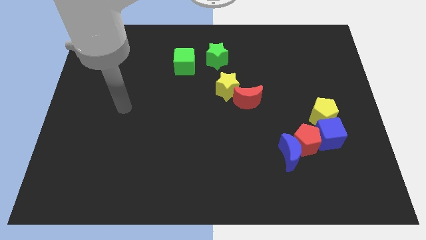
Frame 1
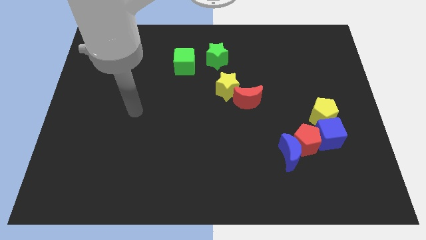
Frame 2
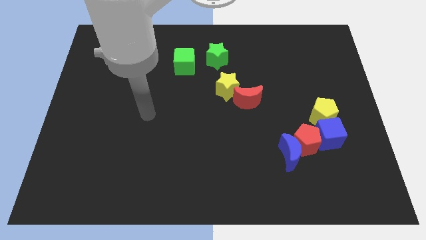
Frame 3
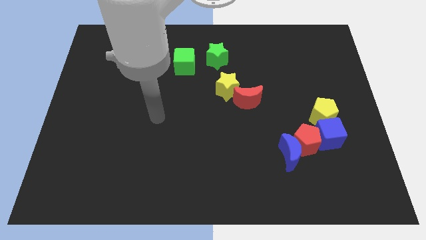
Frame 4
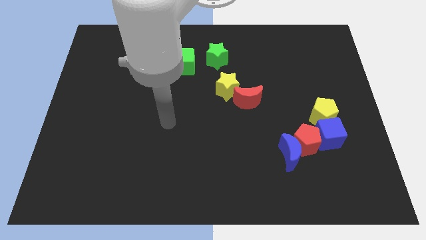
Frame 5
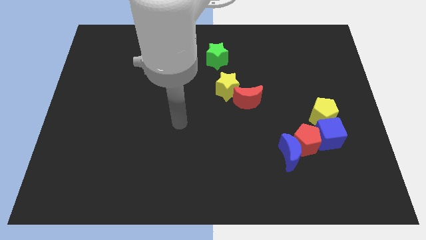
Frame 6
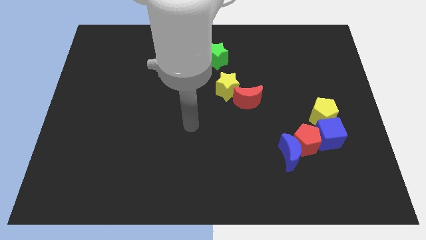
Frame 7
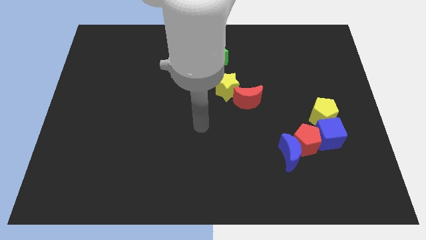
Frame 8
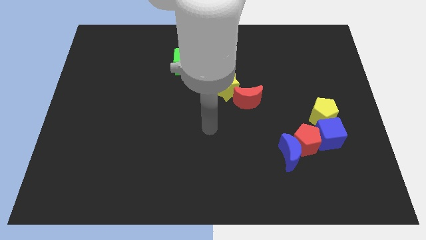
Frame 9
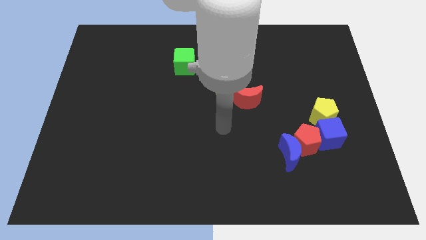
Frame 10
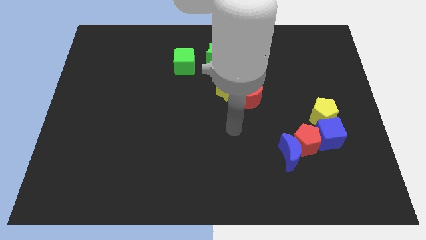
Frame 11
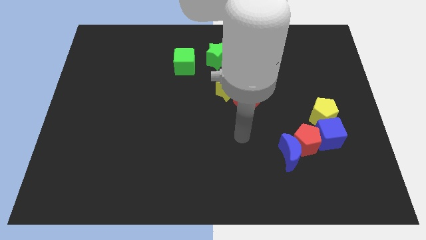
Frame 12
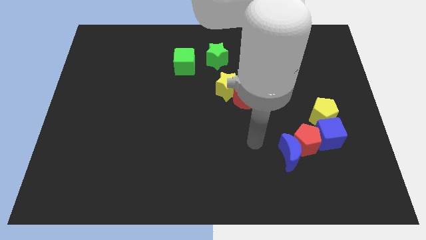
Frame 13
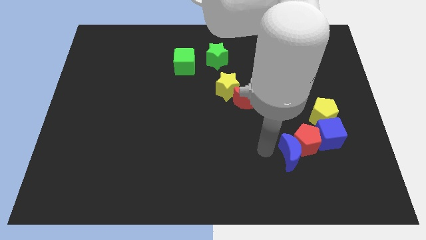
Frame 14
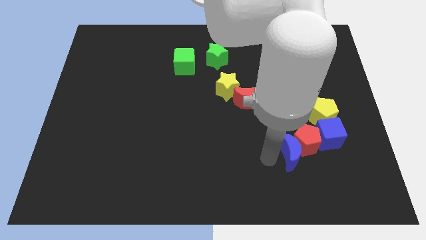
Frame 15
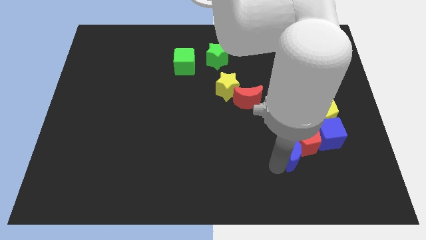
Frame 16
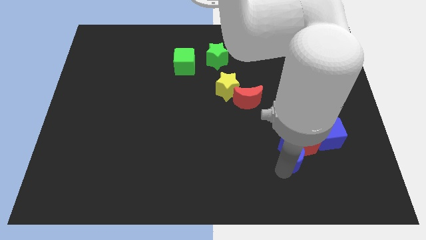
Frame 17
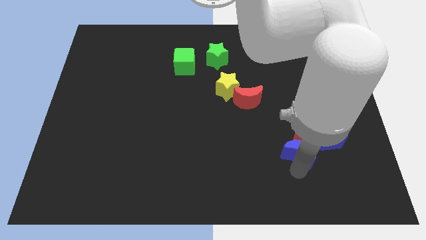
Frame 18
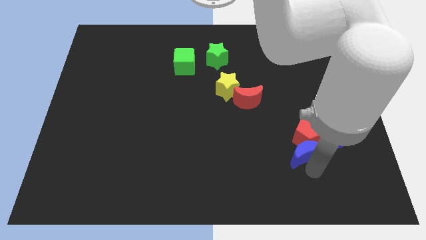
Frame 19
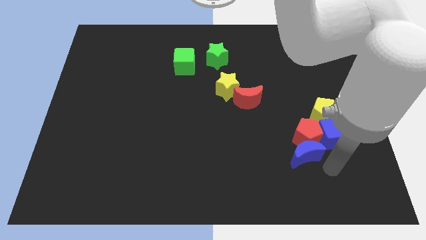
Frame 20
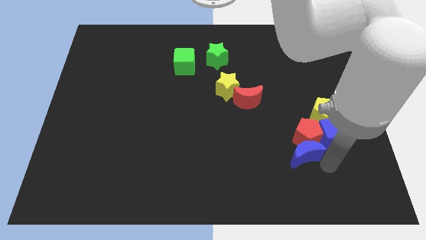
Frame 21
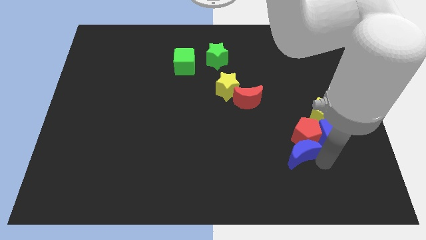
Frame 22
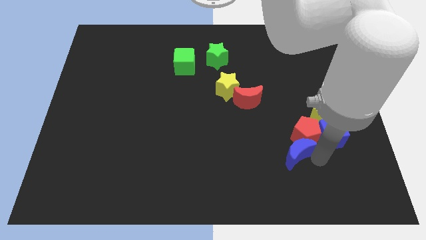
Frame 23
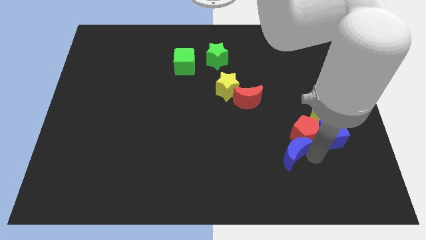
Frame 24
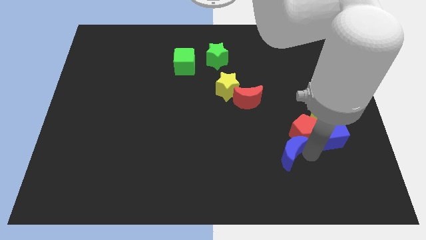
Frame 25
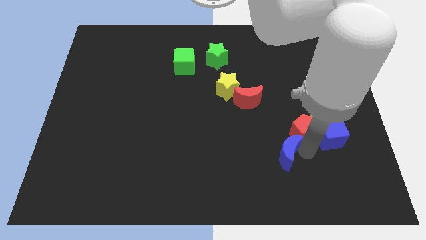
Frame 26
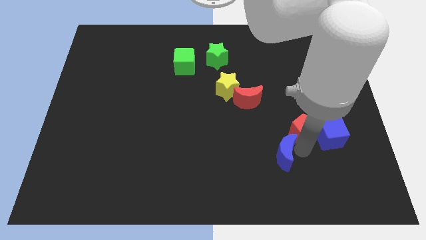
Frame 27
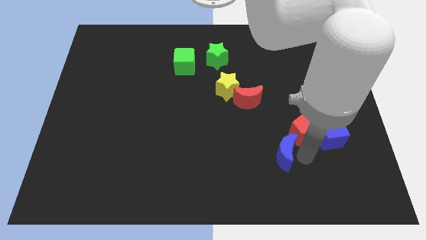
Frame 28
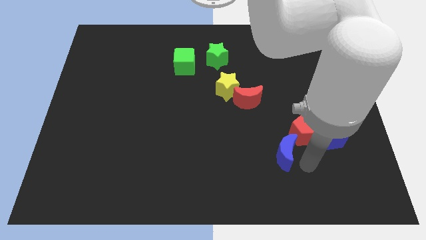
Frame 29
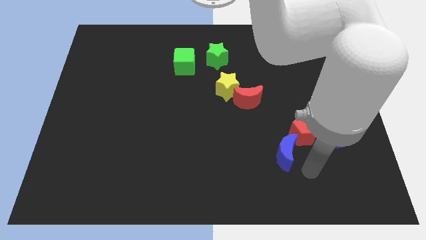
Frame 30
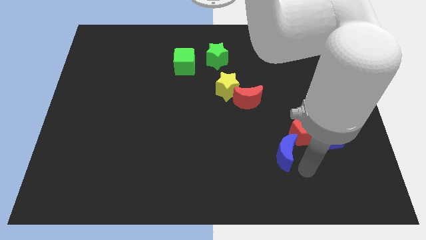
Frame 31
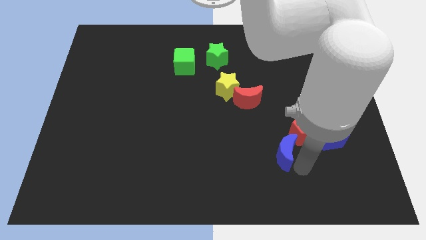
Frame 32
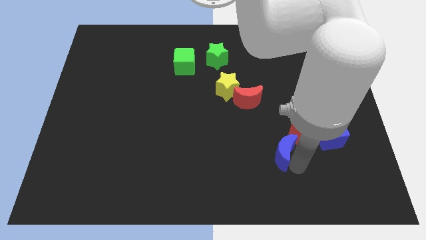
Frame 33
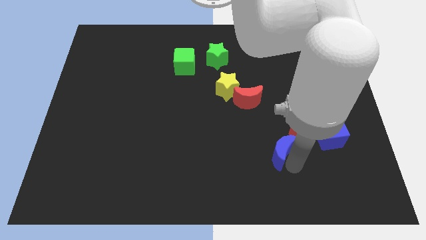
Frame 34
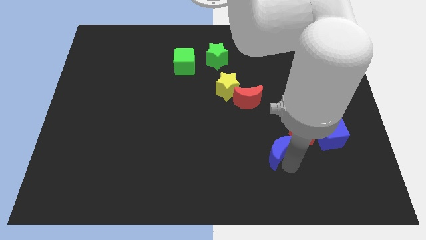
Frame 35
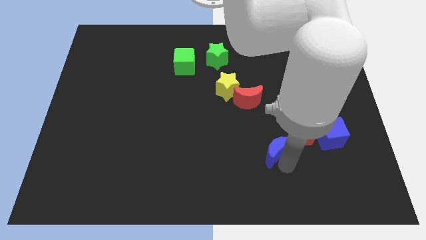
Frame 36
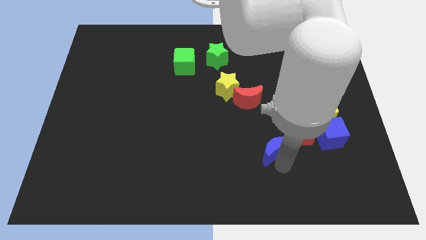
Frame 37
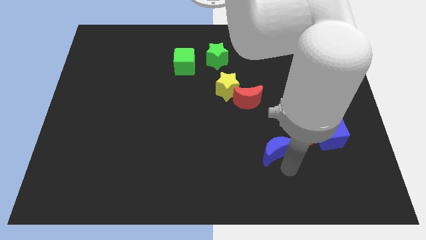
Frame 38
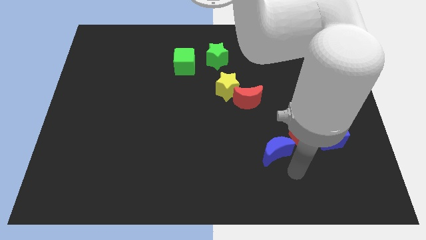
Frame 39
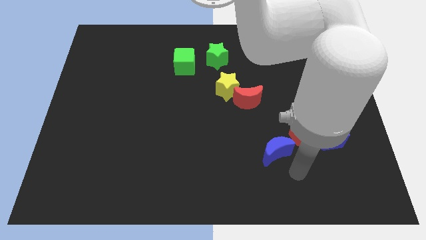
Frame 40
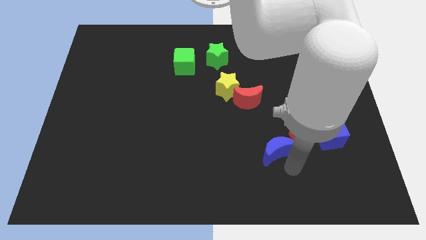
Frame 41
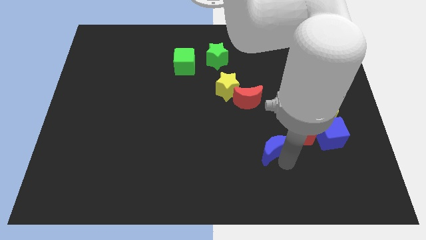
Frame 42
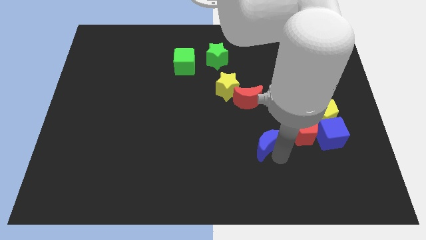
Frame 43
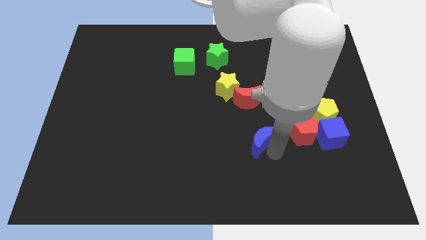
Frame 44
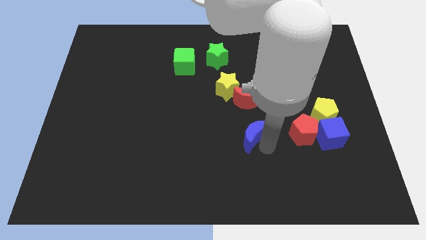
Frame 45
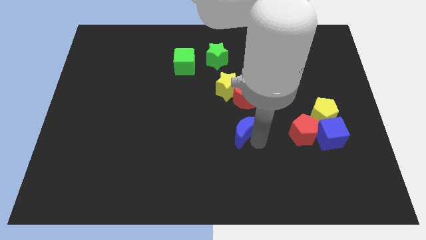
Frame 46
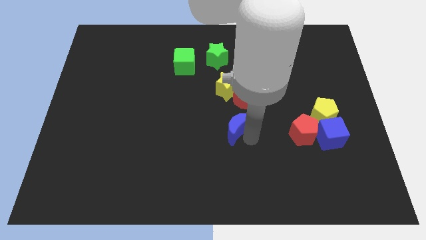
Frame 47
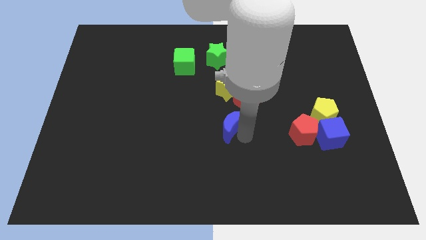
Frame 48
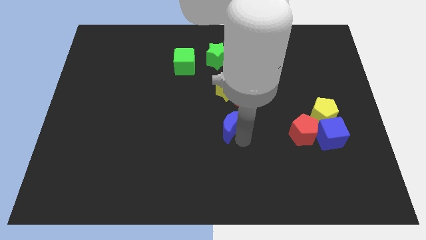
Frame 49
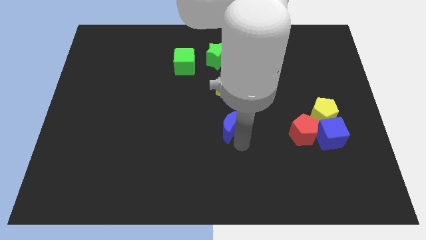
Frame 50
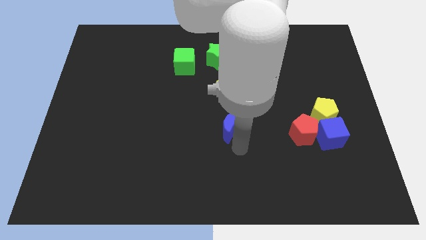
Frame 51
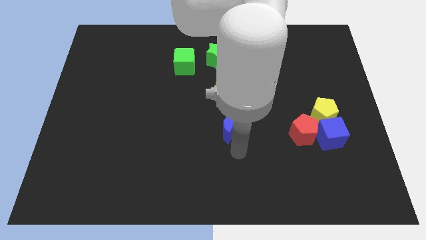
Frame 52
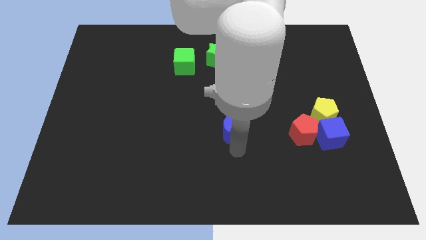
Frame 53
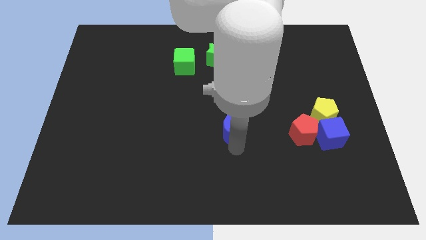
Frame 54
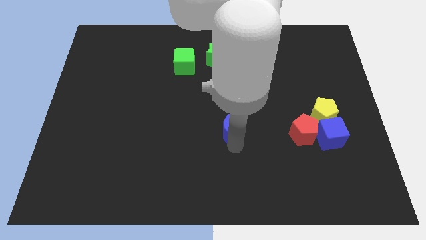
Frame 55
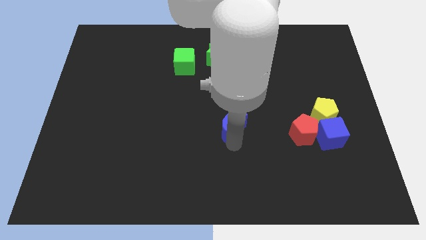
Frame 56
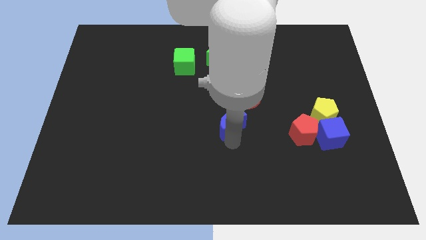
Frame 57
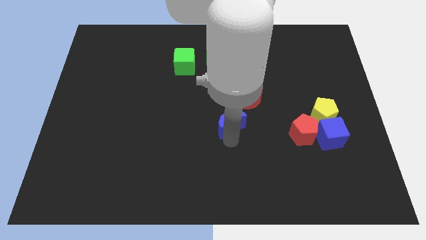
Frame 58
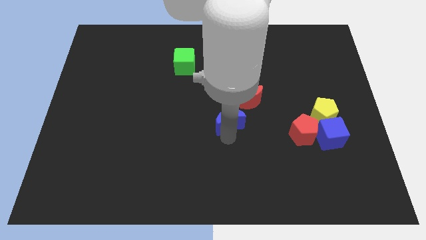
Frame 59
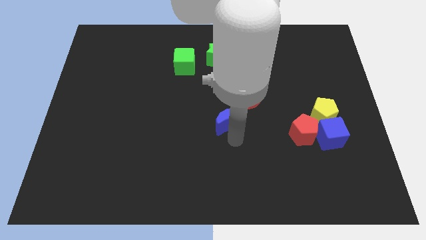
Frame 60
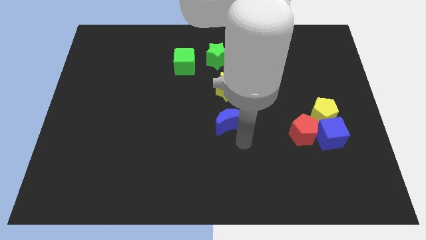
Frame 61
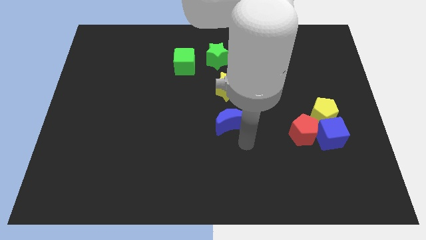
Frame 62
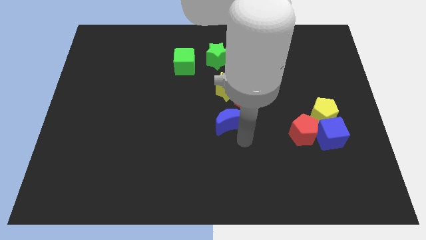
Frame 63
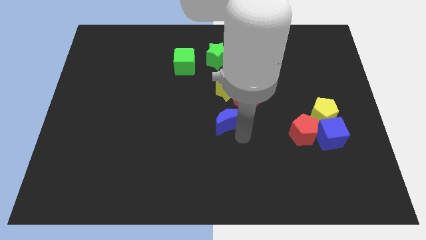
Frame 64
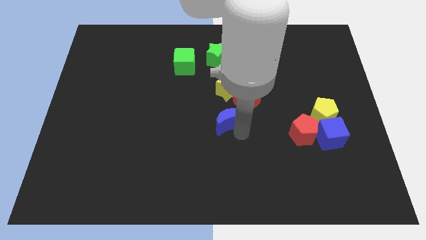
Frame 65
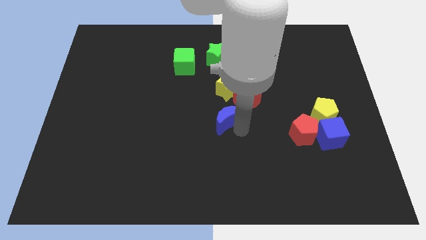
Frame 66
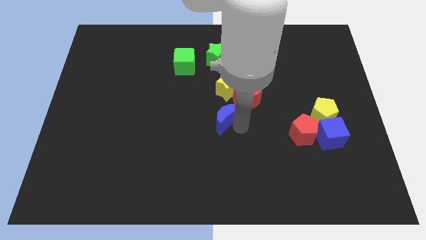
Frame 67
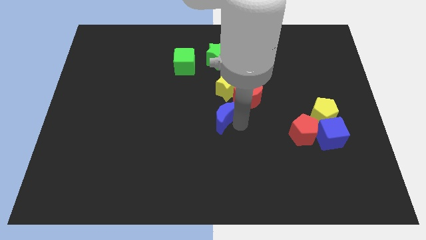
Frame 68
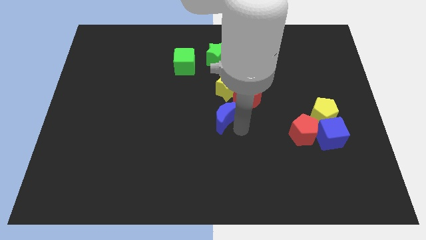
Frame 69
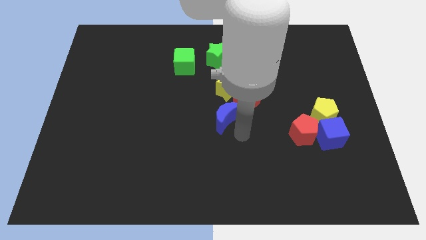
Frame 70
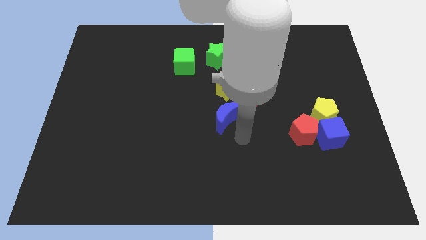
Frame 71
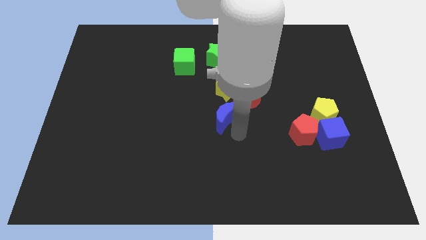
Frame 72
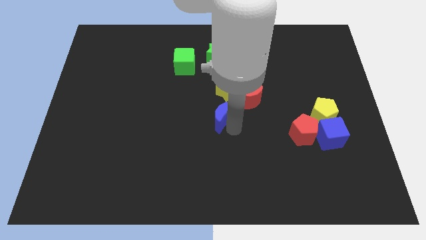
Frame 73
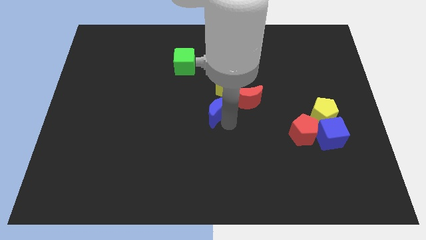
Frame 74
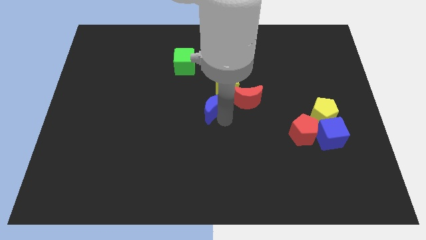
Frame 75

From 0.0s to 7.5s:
push the blue moon diagonally up and left

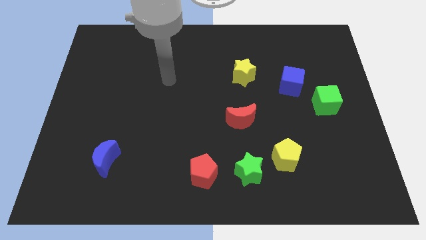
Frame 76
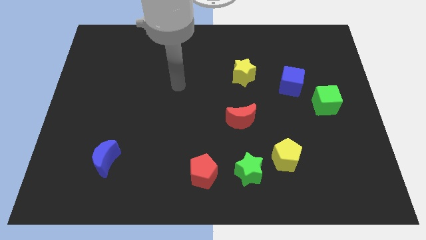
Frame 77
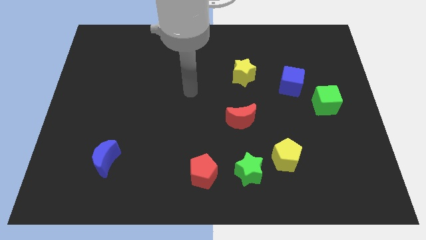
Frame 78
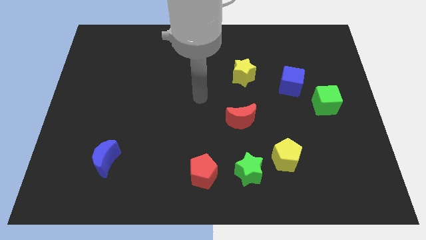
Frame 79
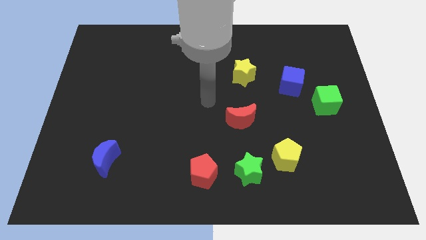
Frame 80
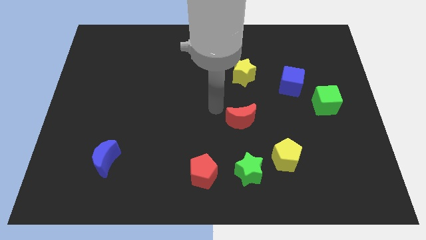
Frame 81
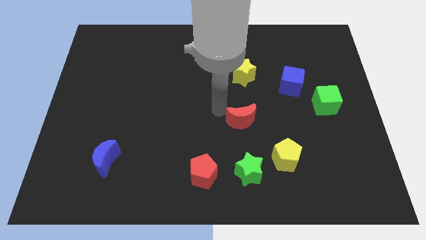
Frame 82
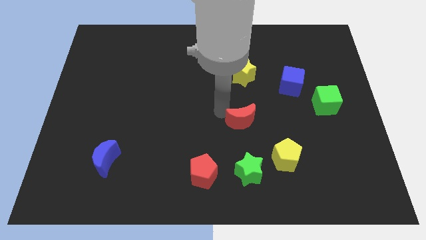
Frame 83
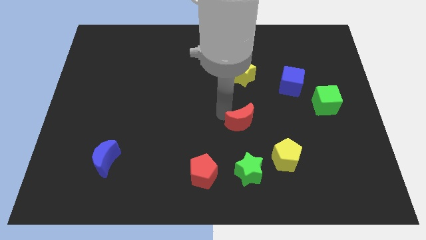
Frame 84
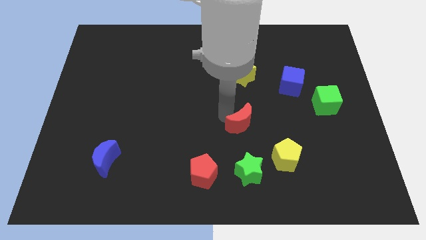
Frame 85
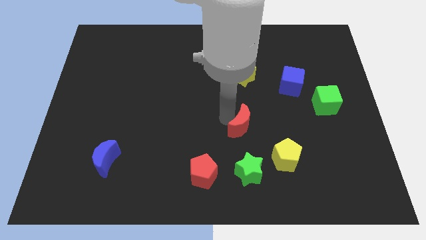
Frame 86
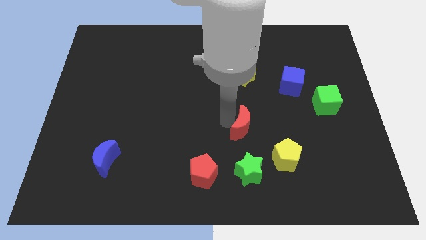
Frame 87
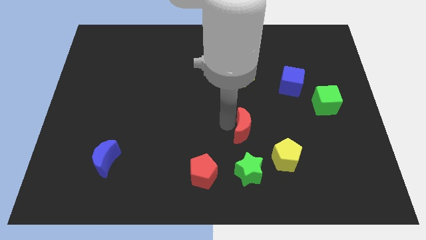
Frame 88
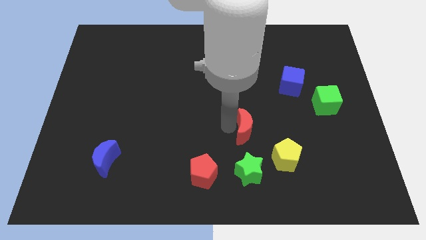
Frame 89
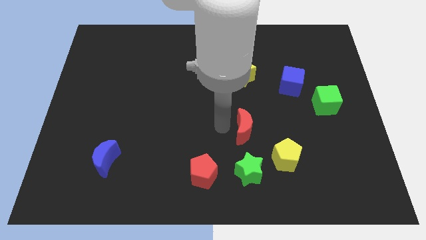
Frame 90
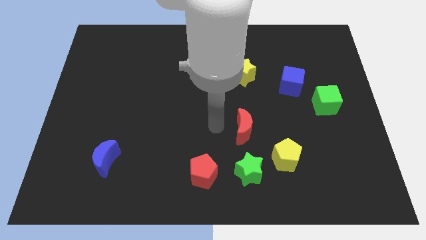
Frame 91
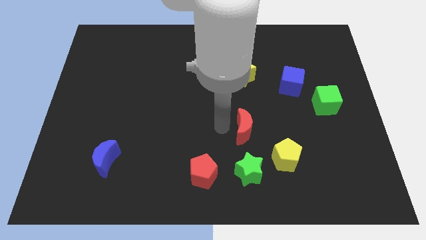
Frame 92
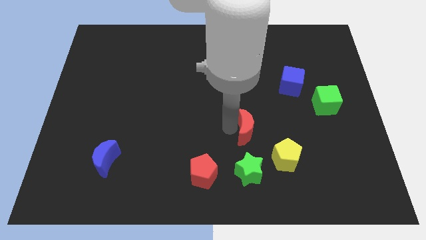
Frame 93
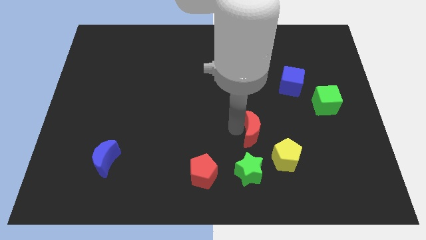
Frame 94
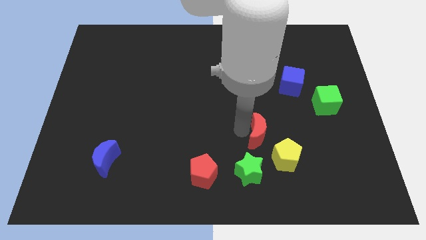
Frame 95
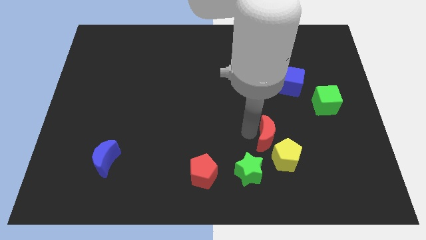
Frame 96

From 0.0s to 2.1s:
slightly slide the red moon diagonally down and right
